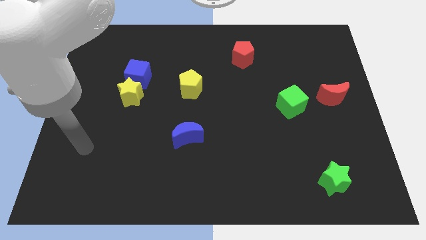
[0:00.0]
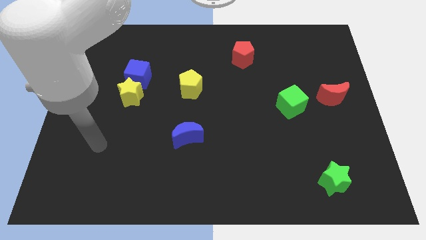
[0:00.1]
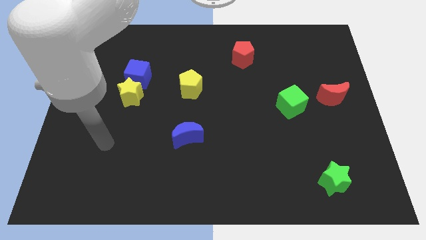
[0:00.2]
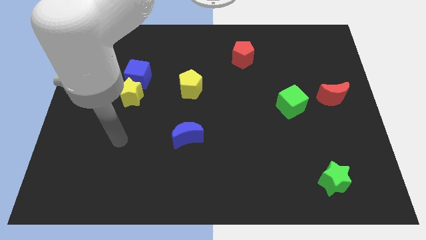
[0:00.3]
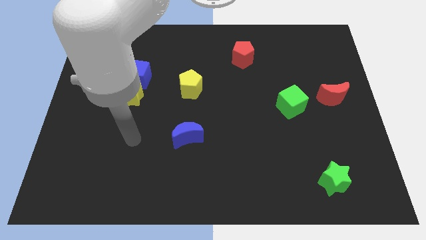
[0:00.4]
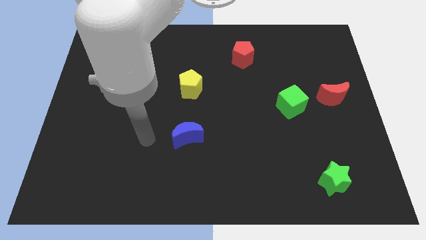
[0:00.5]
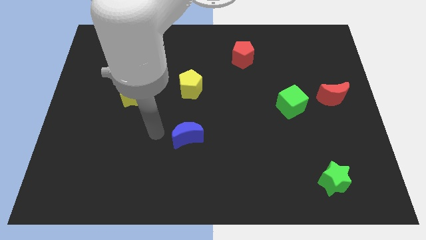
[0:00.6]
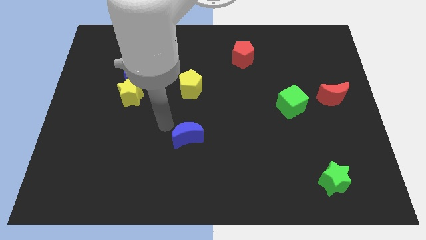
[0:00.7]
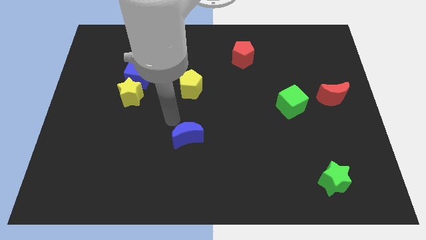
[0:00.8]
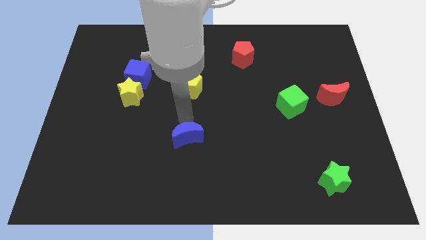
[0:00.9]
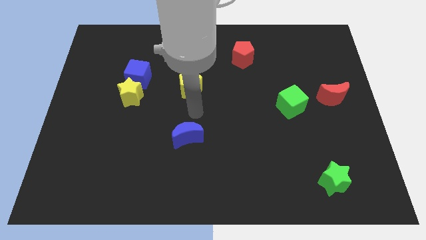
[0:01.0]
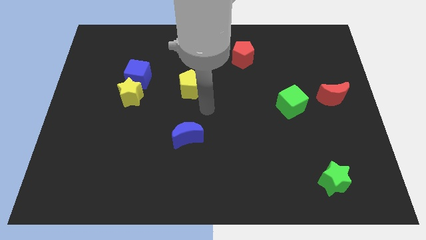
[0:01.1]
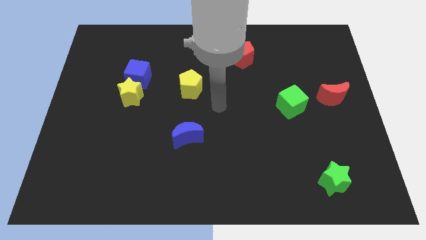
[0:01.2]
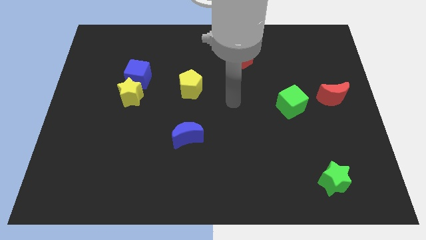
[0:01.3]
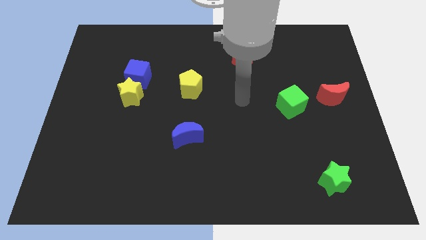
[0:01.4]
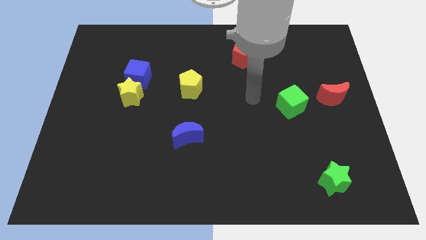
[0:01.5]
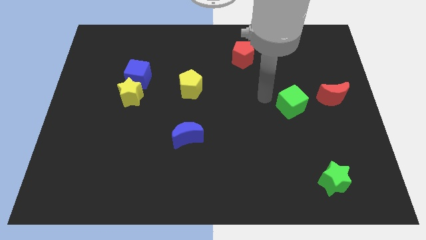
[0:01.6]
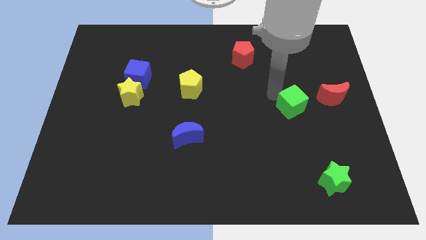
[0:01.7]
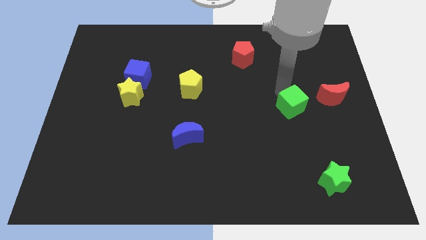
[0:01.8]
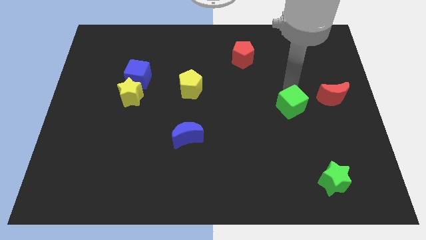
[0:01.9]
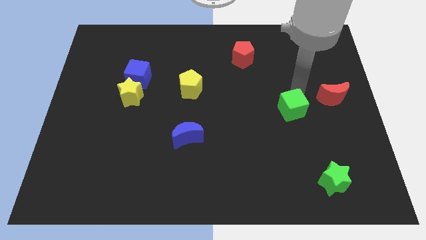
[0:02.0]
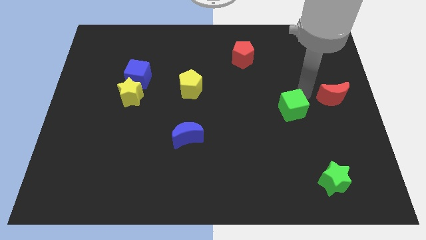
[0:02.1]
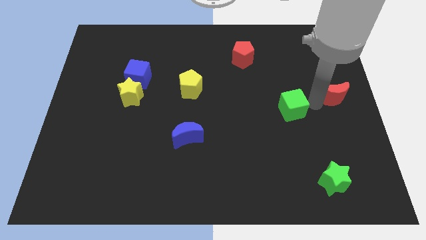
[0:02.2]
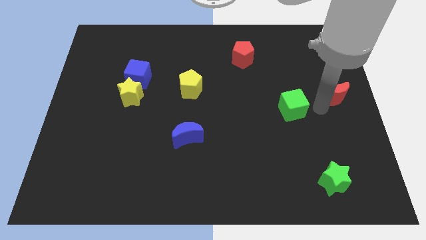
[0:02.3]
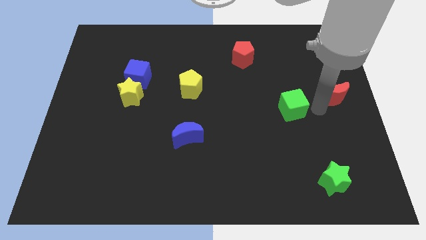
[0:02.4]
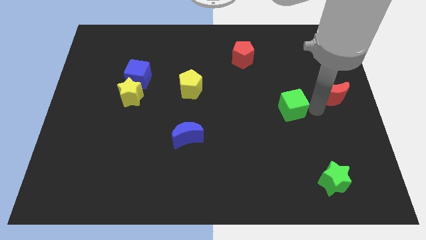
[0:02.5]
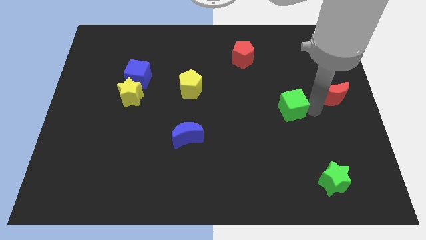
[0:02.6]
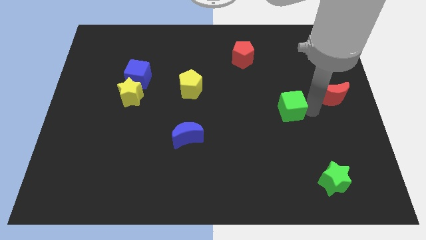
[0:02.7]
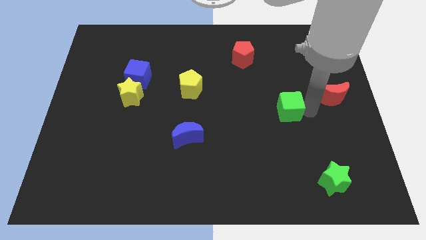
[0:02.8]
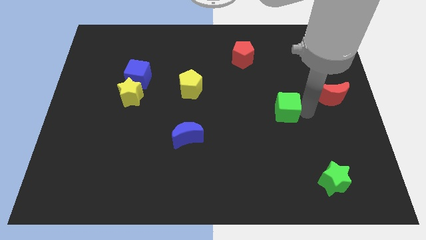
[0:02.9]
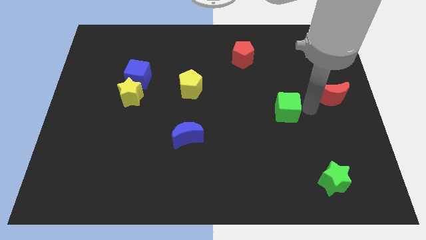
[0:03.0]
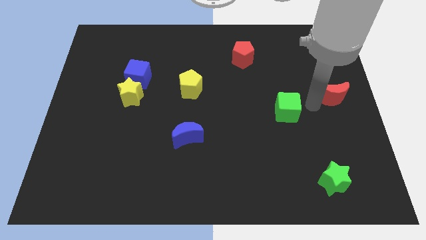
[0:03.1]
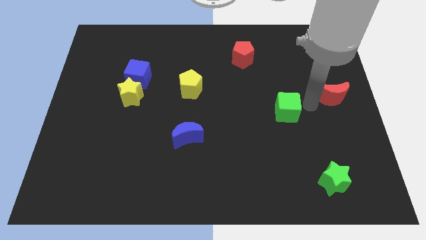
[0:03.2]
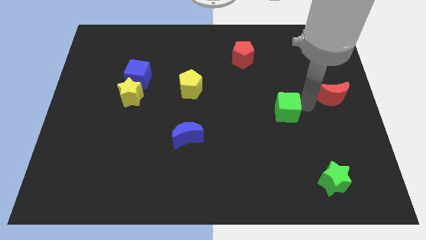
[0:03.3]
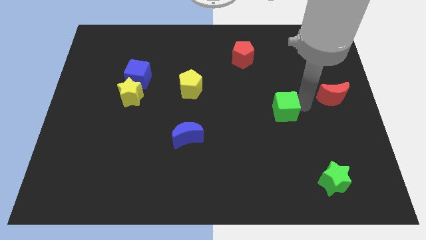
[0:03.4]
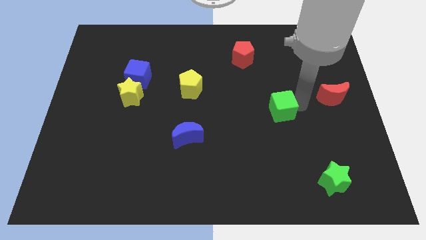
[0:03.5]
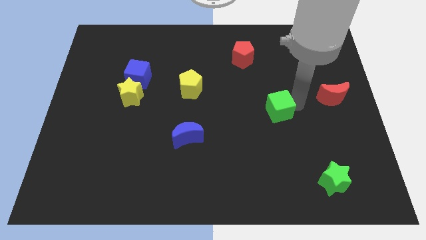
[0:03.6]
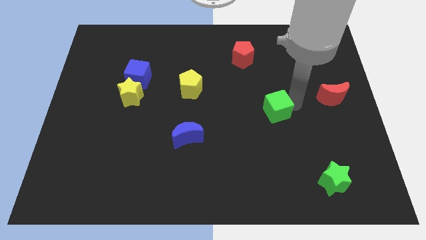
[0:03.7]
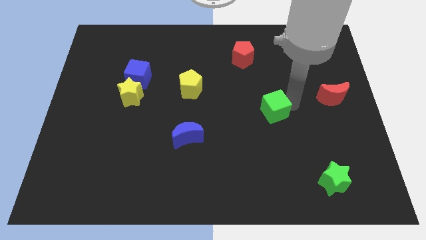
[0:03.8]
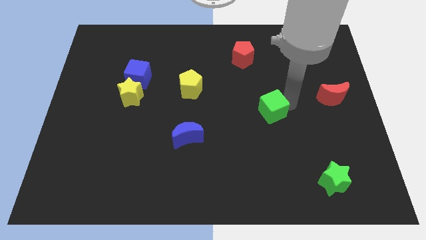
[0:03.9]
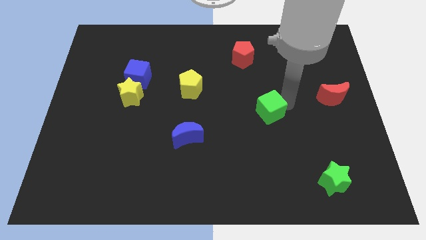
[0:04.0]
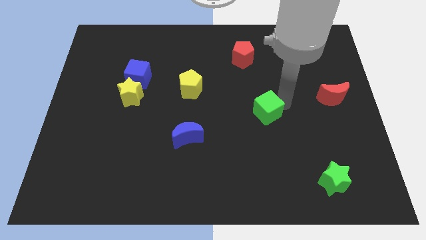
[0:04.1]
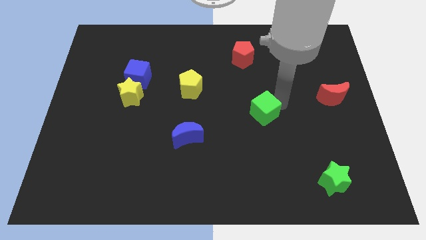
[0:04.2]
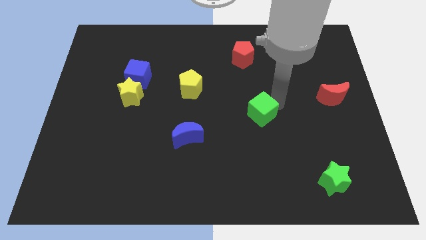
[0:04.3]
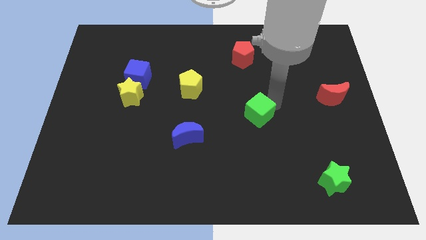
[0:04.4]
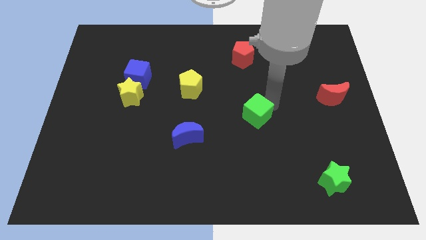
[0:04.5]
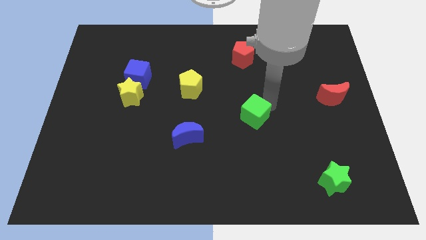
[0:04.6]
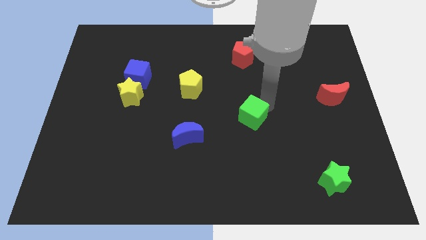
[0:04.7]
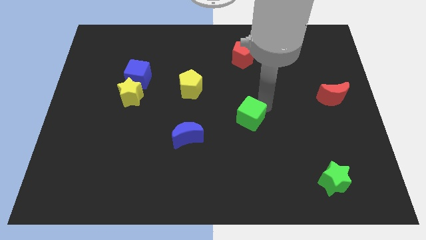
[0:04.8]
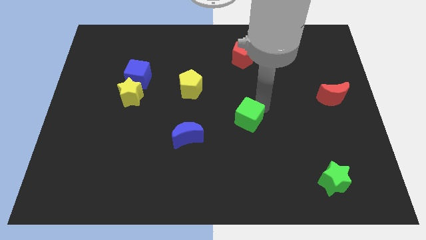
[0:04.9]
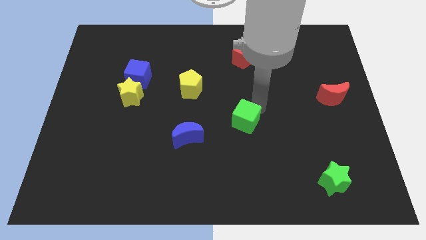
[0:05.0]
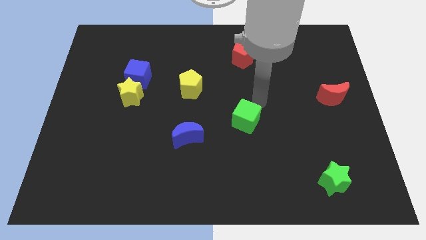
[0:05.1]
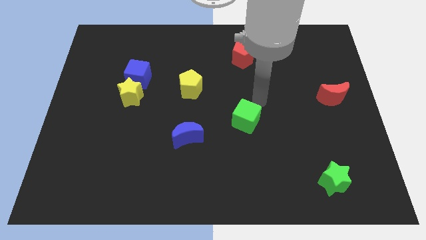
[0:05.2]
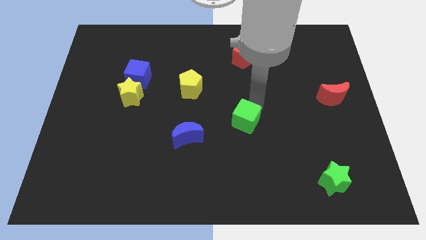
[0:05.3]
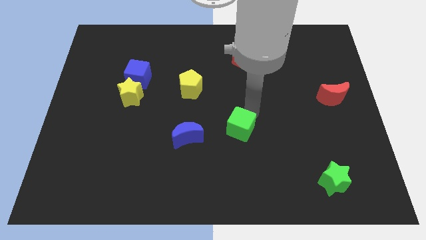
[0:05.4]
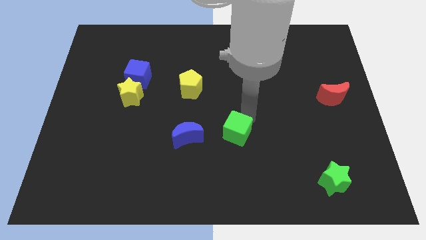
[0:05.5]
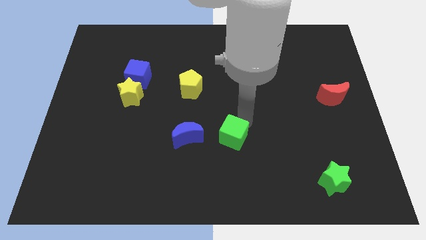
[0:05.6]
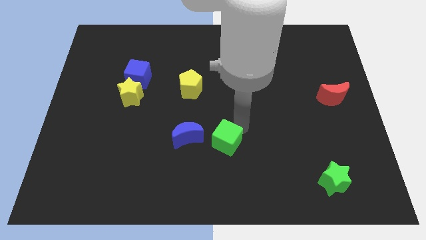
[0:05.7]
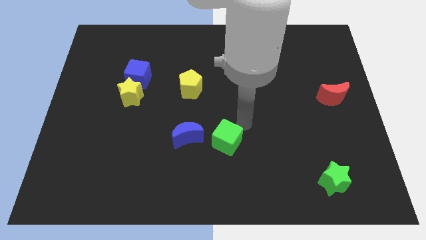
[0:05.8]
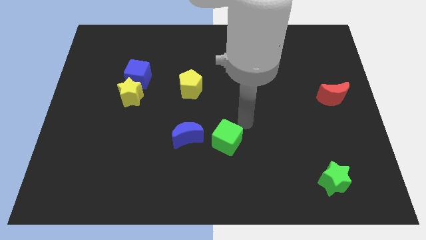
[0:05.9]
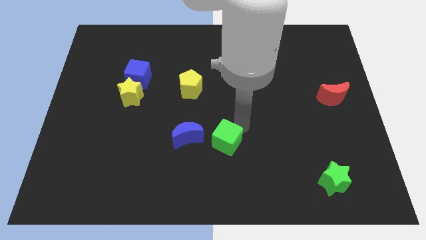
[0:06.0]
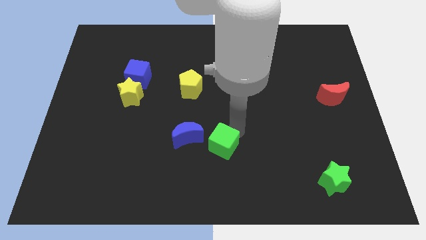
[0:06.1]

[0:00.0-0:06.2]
push the green cube diagonally down and to the right of the blue moon

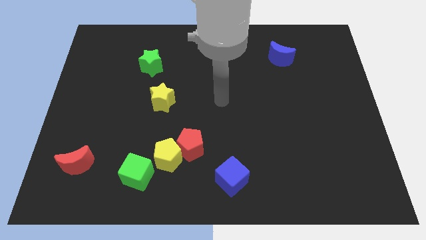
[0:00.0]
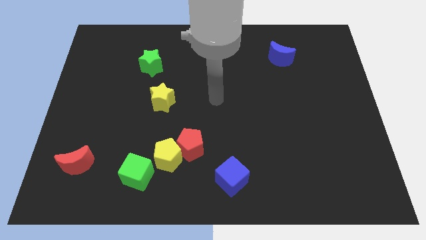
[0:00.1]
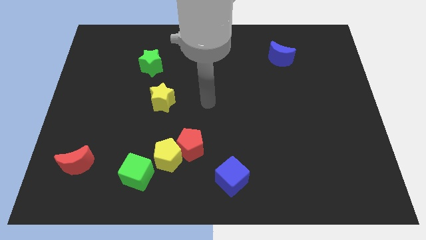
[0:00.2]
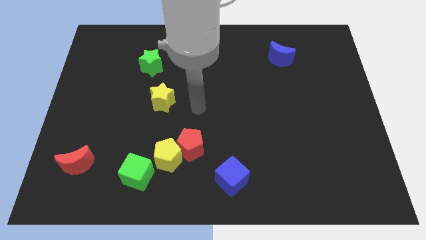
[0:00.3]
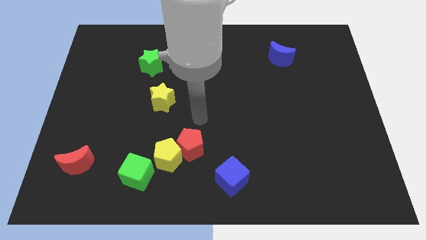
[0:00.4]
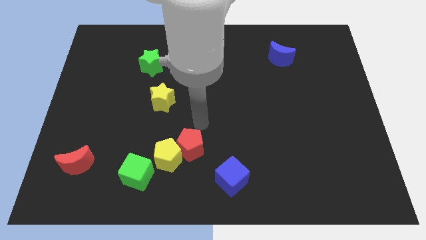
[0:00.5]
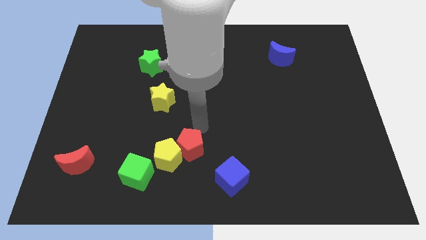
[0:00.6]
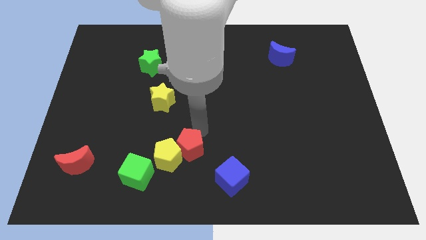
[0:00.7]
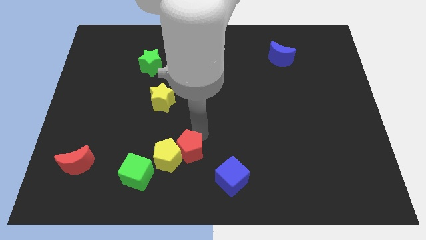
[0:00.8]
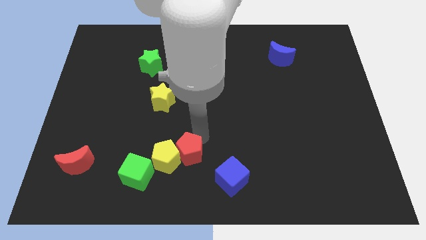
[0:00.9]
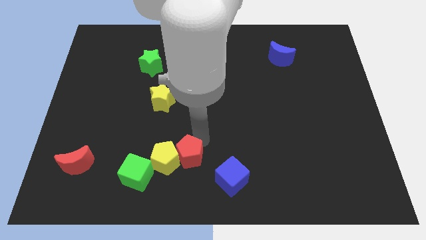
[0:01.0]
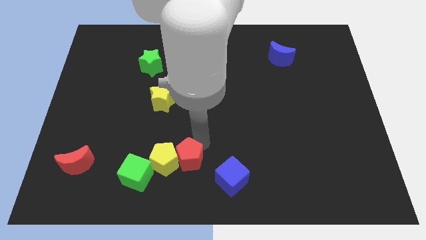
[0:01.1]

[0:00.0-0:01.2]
put the red pentagon left of the blue cube
